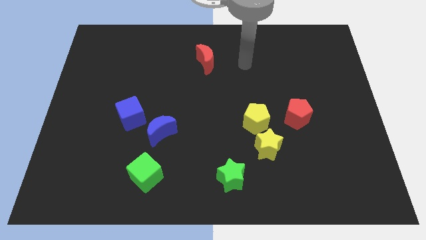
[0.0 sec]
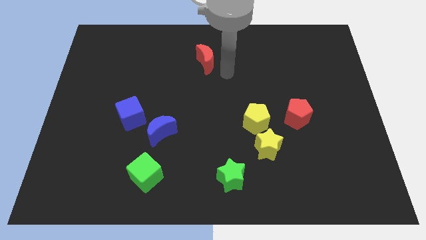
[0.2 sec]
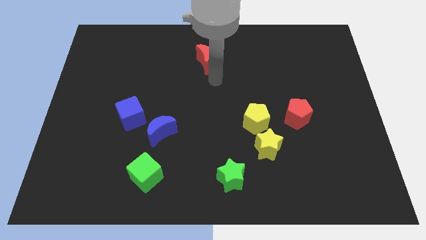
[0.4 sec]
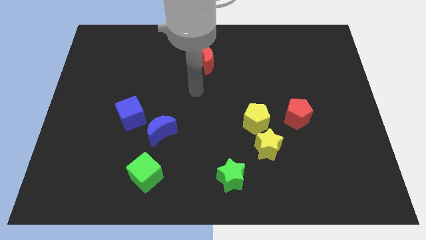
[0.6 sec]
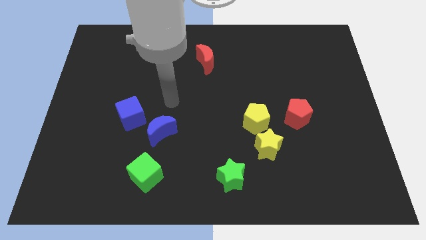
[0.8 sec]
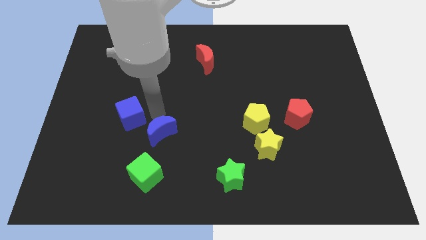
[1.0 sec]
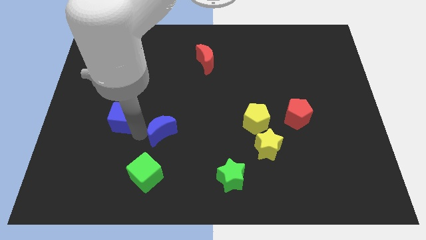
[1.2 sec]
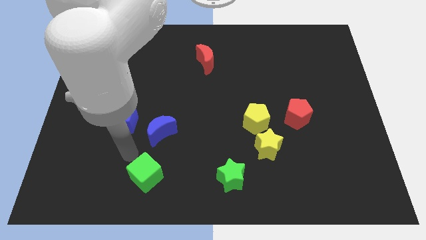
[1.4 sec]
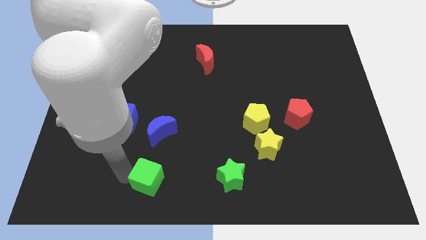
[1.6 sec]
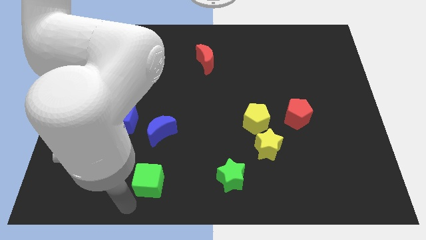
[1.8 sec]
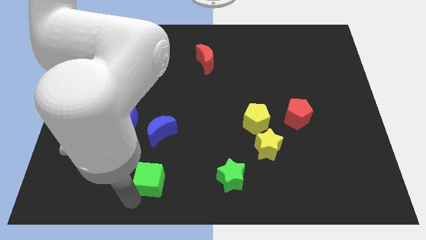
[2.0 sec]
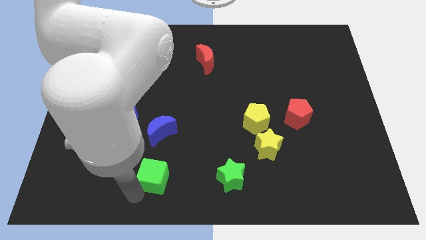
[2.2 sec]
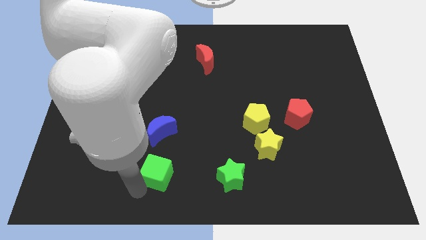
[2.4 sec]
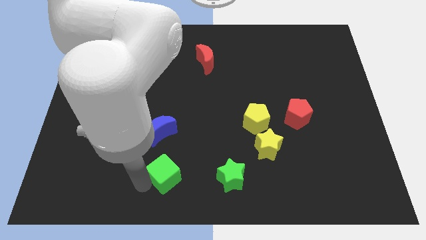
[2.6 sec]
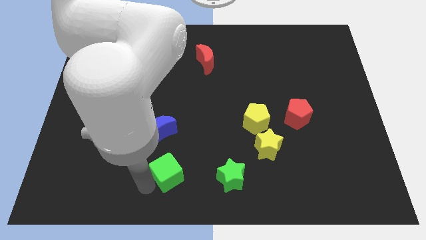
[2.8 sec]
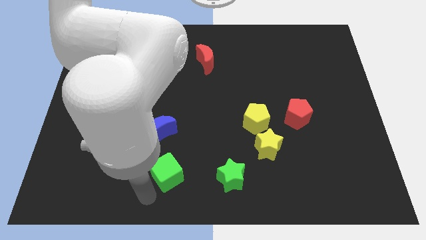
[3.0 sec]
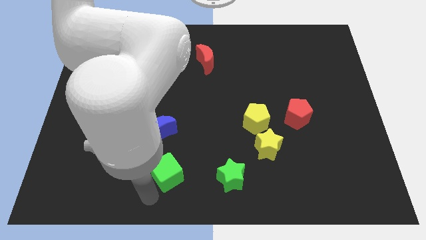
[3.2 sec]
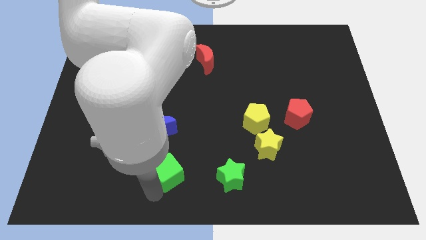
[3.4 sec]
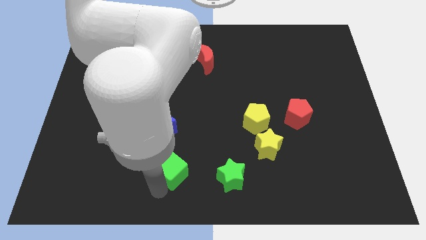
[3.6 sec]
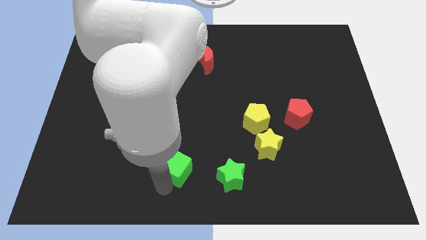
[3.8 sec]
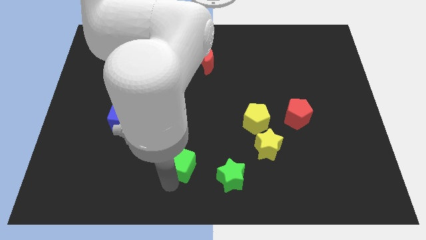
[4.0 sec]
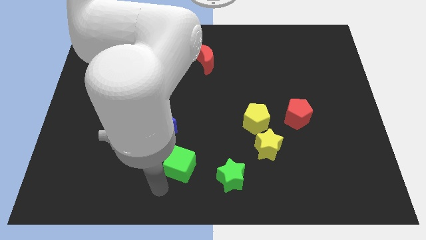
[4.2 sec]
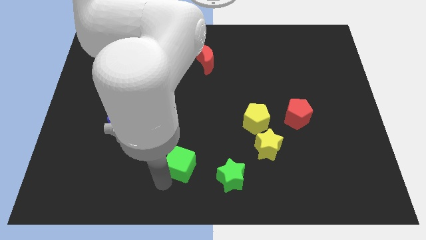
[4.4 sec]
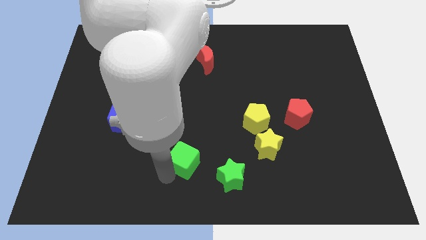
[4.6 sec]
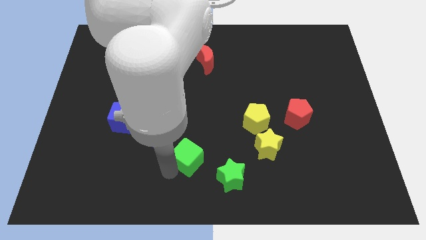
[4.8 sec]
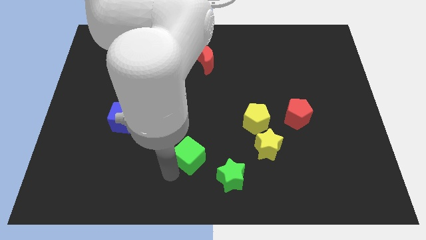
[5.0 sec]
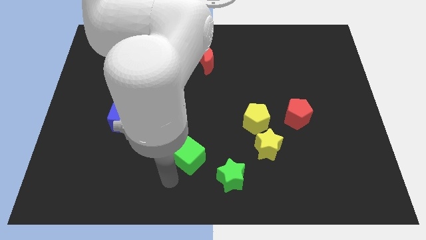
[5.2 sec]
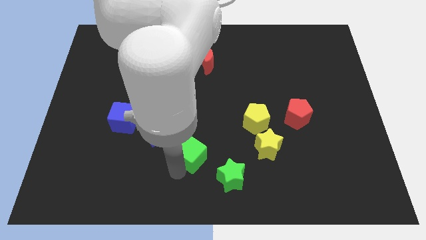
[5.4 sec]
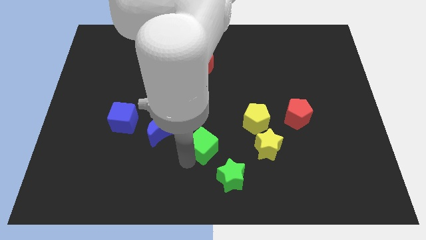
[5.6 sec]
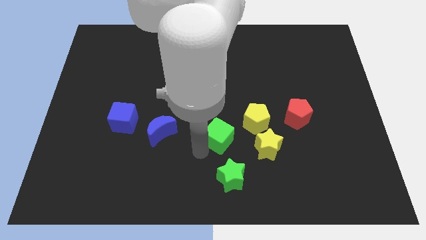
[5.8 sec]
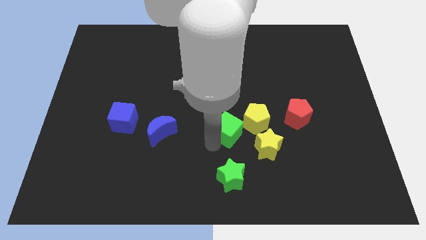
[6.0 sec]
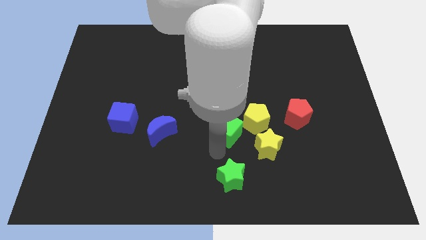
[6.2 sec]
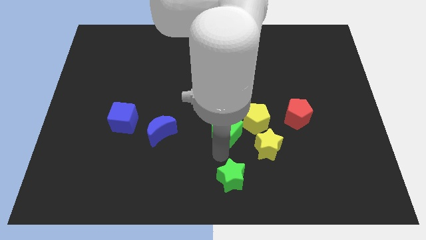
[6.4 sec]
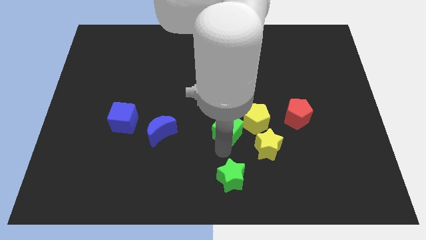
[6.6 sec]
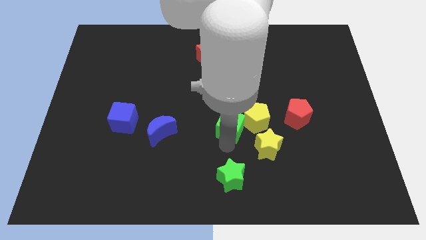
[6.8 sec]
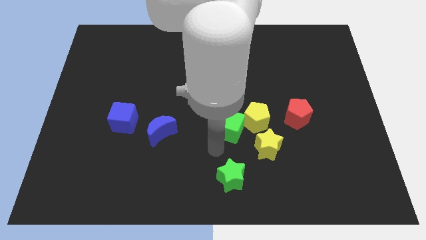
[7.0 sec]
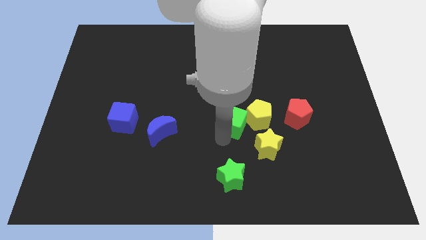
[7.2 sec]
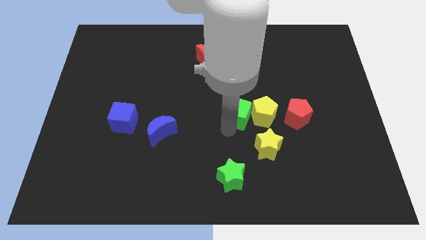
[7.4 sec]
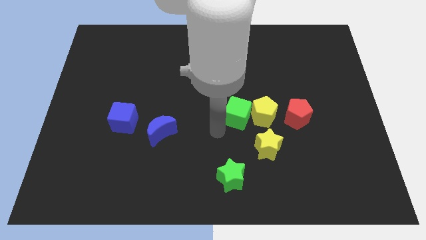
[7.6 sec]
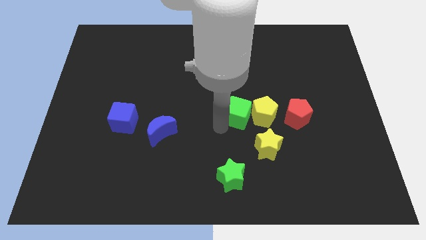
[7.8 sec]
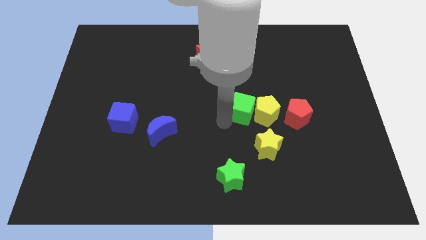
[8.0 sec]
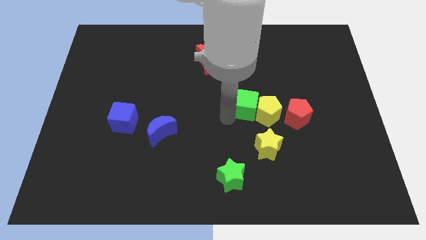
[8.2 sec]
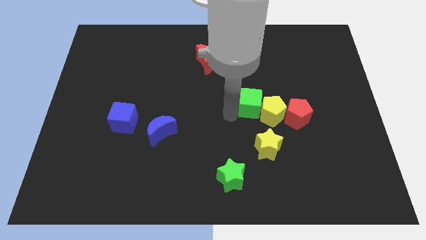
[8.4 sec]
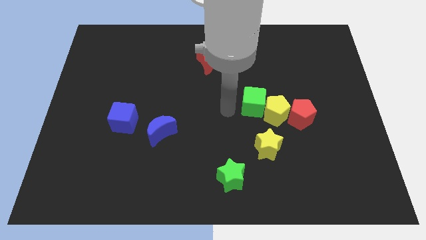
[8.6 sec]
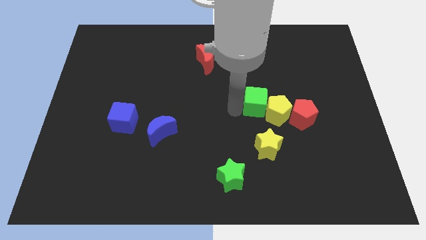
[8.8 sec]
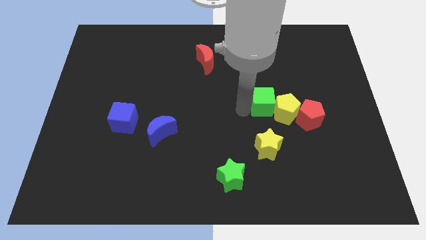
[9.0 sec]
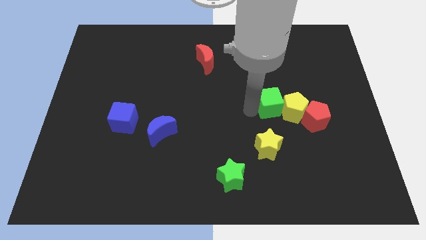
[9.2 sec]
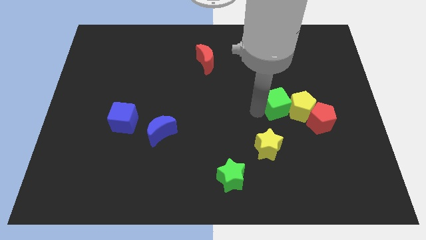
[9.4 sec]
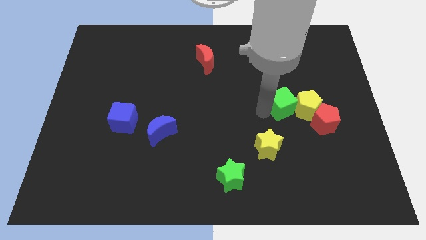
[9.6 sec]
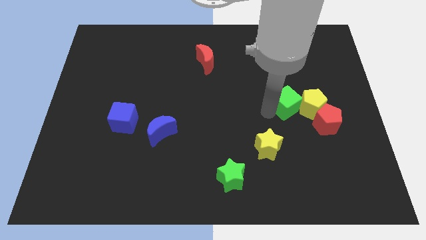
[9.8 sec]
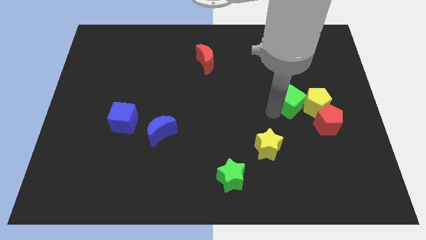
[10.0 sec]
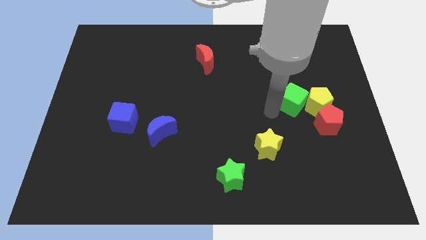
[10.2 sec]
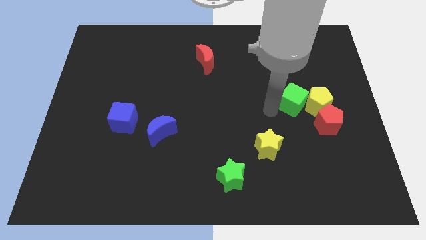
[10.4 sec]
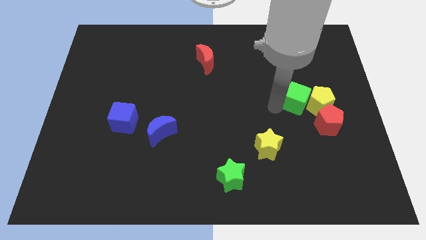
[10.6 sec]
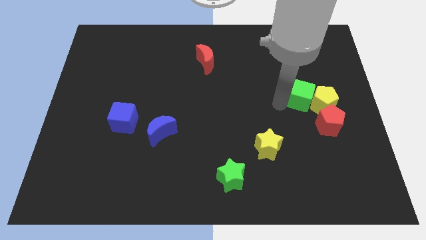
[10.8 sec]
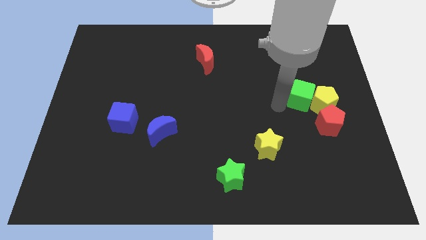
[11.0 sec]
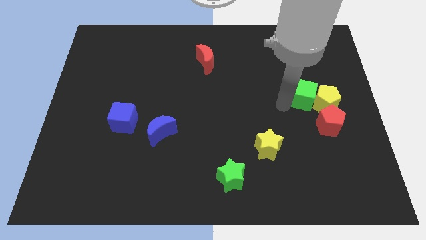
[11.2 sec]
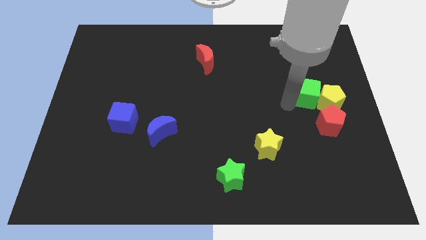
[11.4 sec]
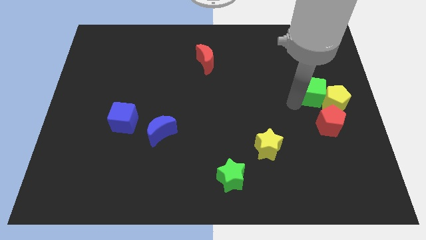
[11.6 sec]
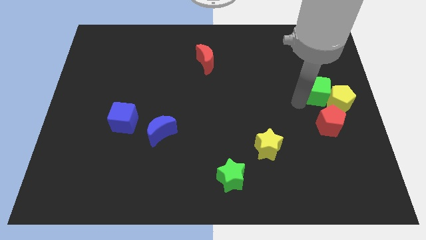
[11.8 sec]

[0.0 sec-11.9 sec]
move the green cube to the right side of the board
